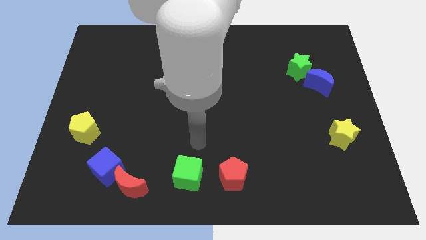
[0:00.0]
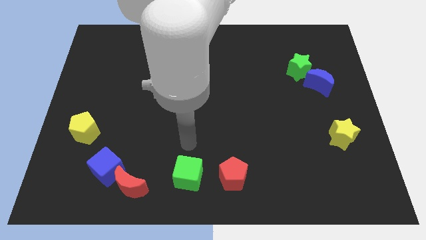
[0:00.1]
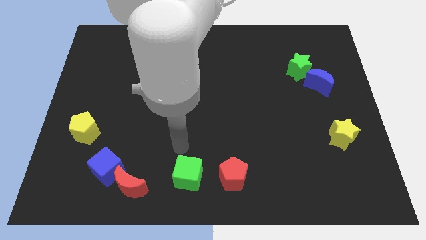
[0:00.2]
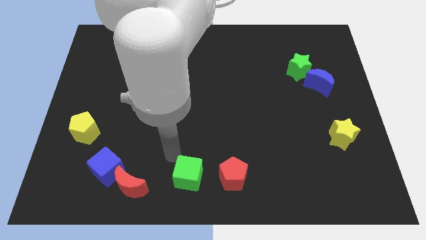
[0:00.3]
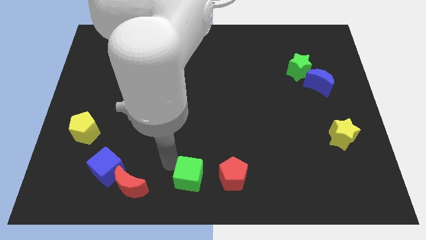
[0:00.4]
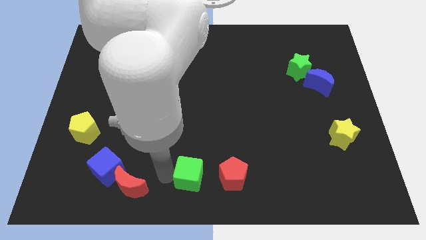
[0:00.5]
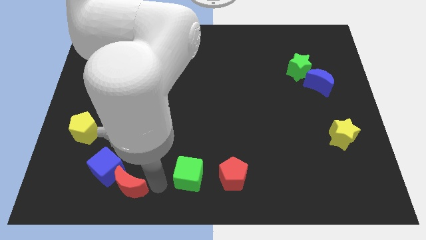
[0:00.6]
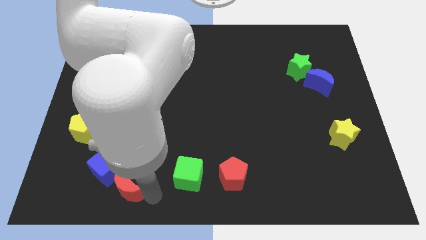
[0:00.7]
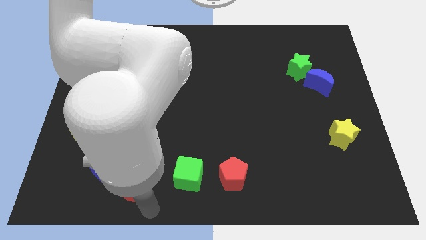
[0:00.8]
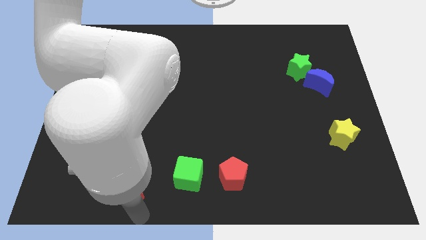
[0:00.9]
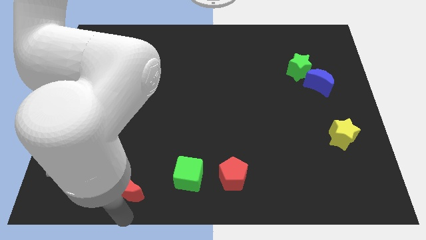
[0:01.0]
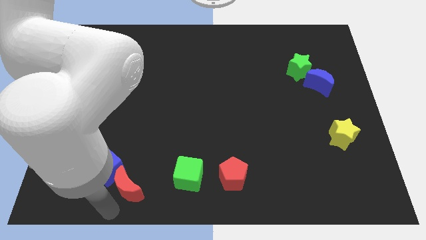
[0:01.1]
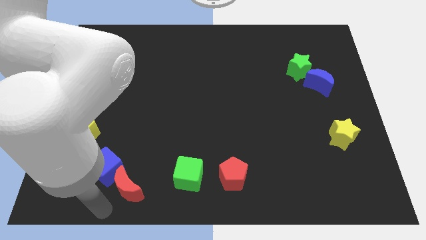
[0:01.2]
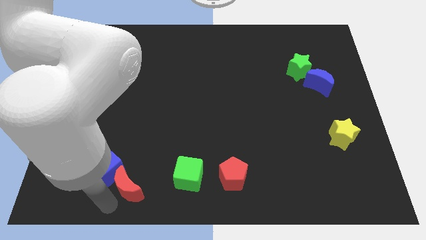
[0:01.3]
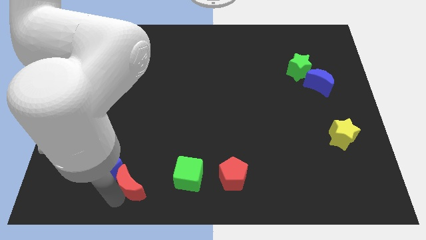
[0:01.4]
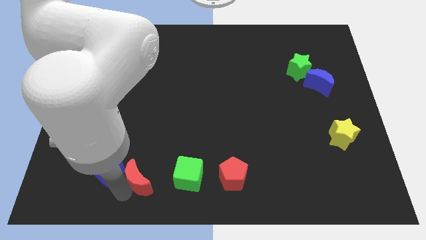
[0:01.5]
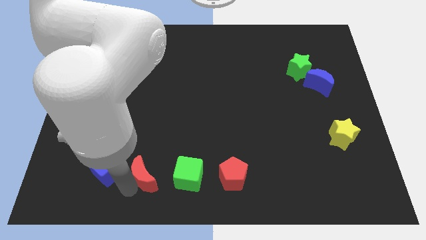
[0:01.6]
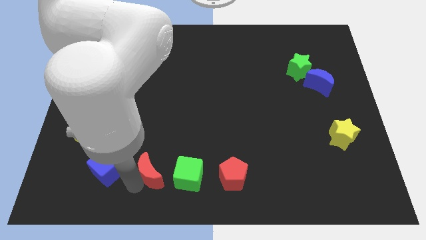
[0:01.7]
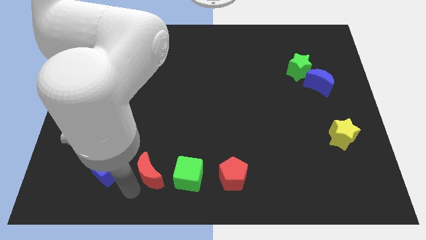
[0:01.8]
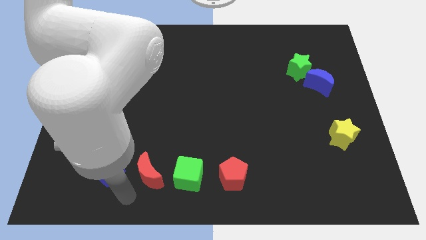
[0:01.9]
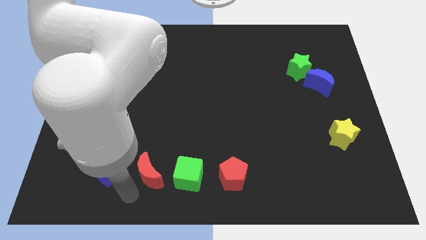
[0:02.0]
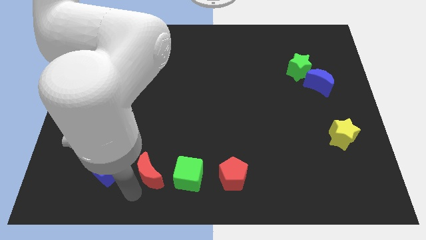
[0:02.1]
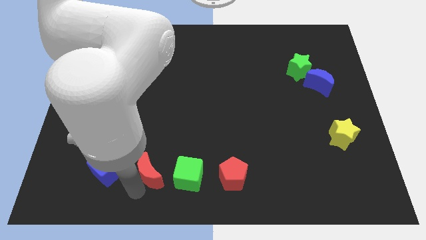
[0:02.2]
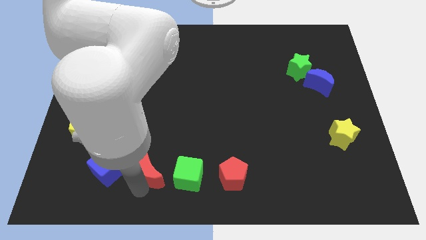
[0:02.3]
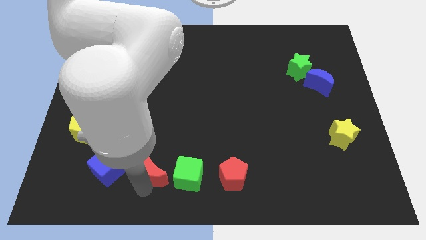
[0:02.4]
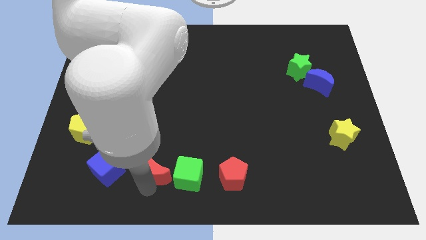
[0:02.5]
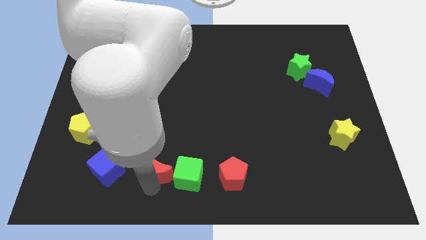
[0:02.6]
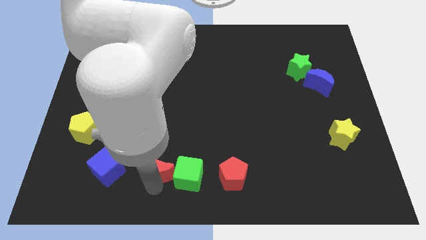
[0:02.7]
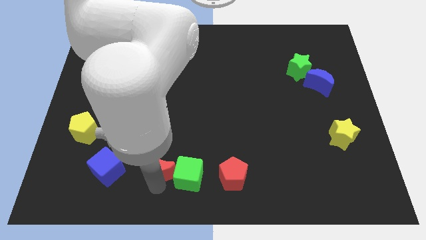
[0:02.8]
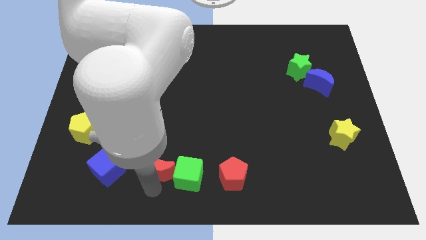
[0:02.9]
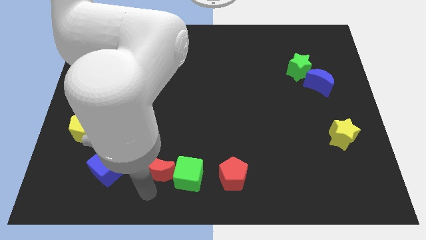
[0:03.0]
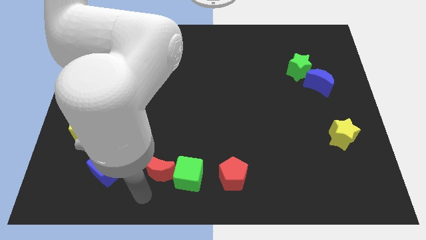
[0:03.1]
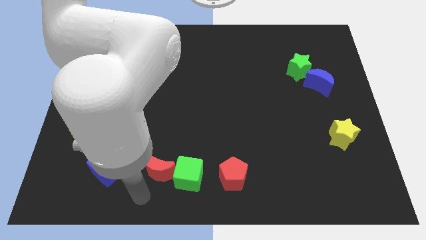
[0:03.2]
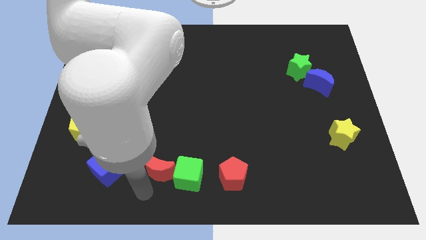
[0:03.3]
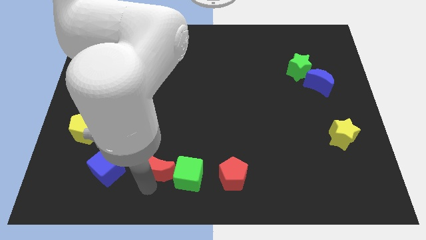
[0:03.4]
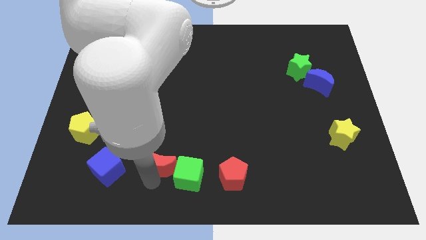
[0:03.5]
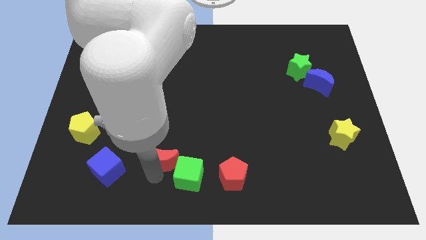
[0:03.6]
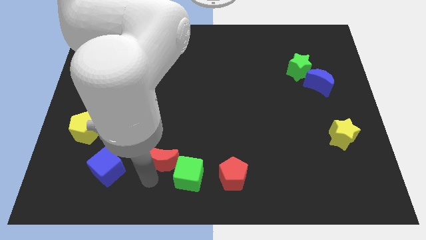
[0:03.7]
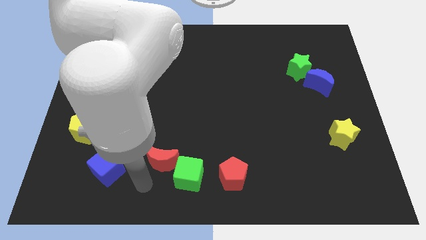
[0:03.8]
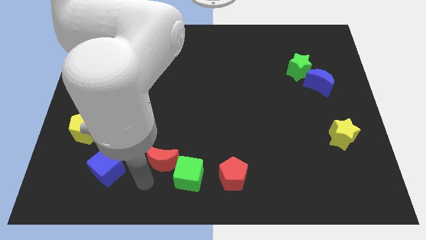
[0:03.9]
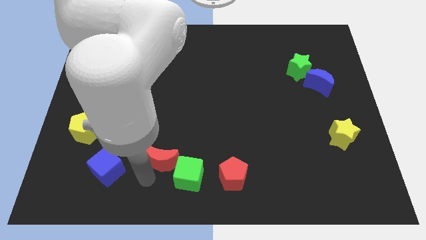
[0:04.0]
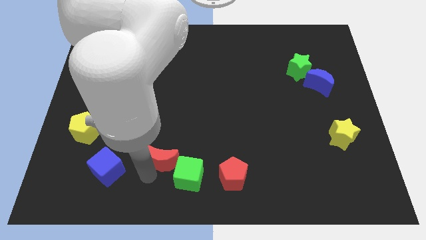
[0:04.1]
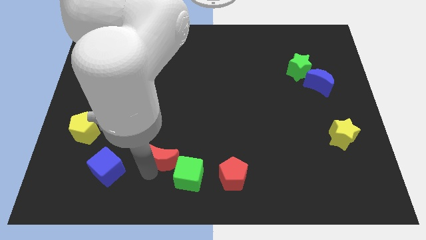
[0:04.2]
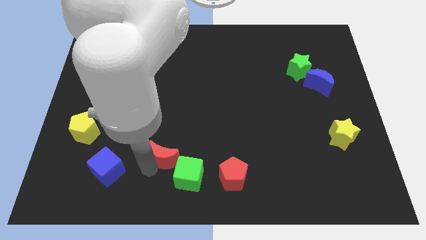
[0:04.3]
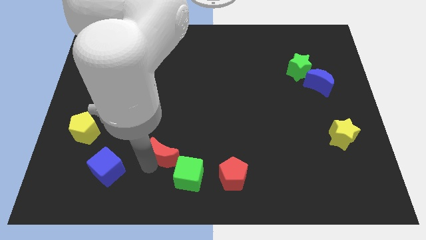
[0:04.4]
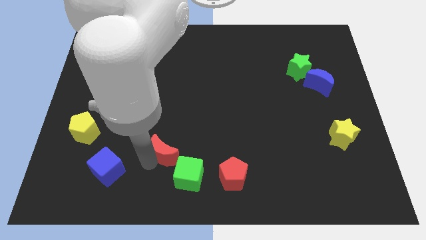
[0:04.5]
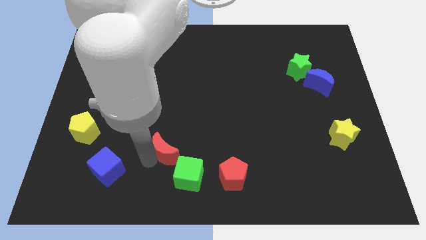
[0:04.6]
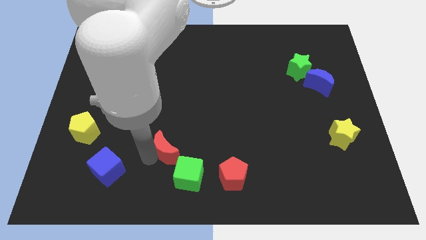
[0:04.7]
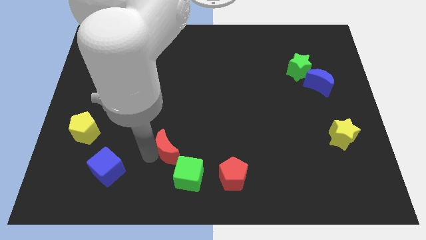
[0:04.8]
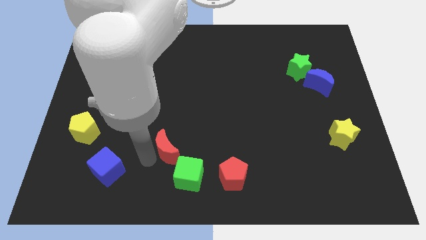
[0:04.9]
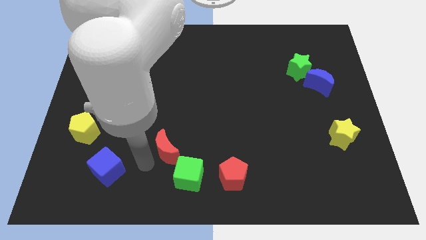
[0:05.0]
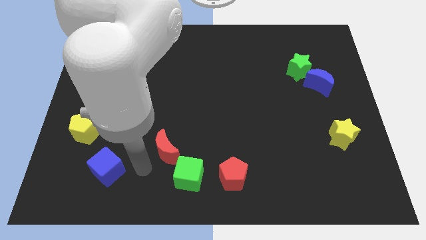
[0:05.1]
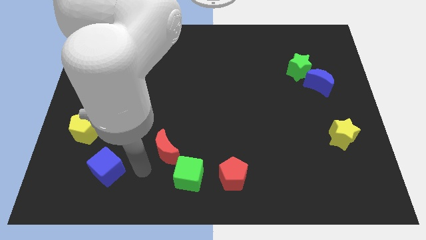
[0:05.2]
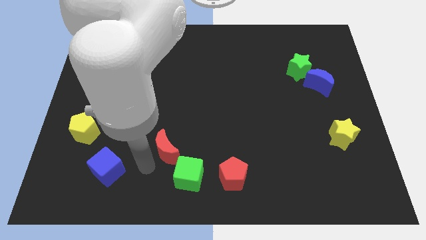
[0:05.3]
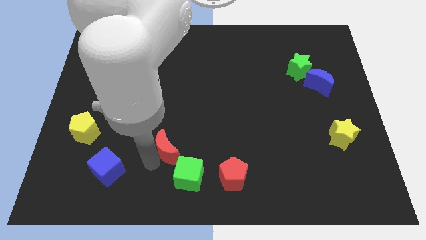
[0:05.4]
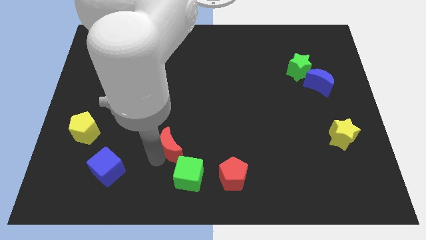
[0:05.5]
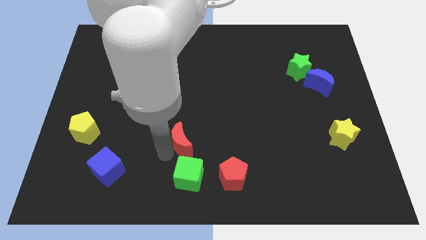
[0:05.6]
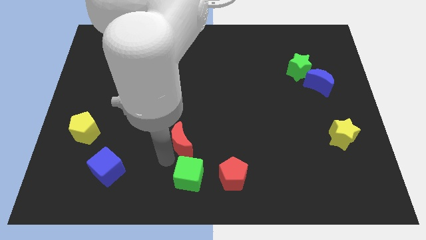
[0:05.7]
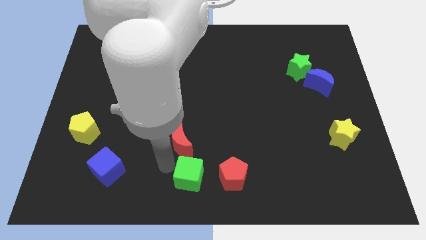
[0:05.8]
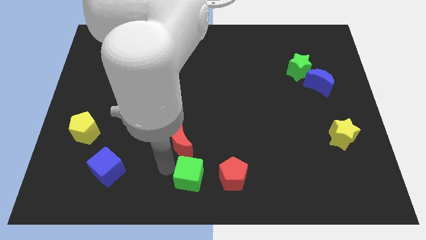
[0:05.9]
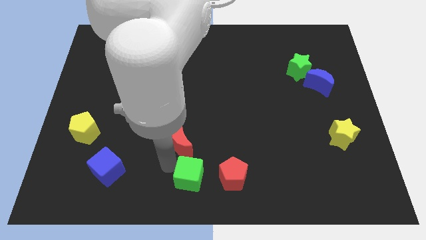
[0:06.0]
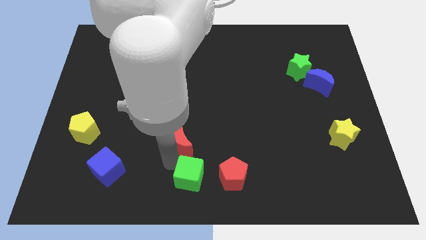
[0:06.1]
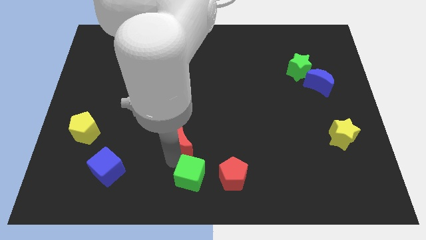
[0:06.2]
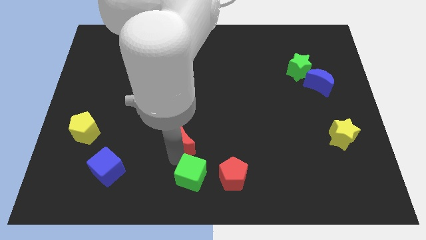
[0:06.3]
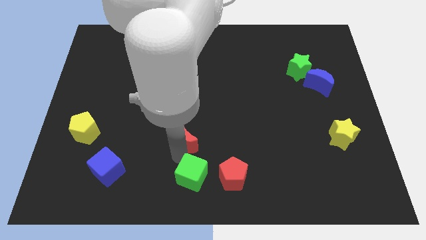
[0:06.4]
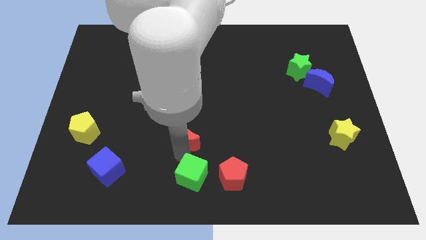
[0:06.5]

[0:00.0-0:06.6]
slide the red moon to the middle
